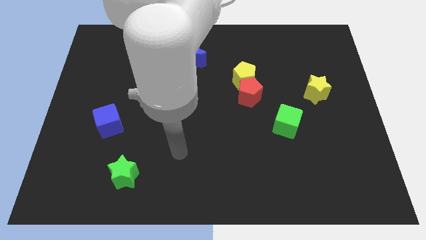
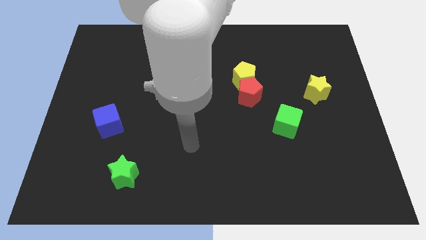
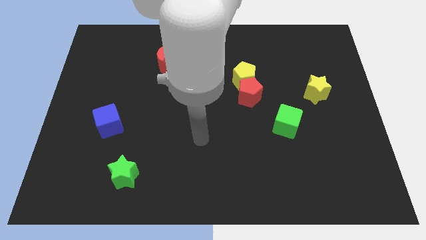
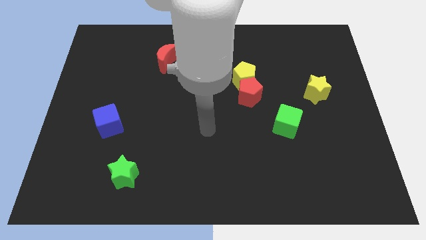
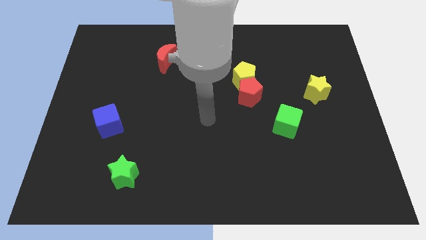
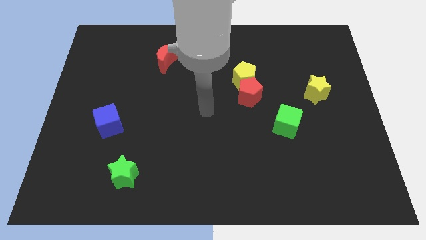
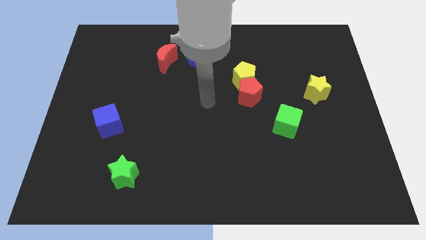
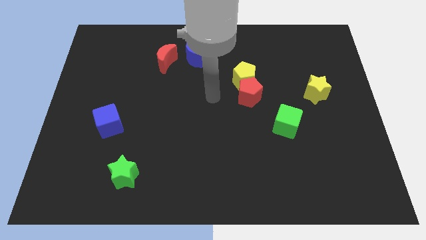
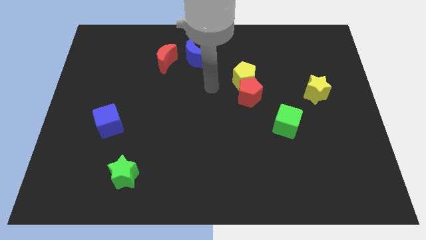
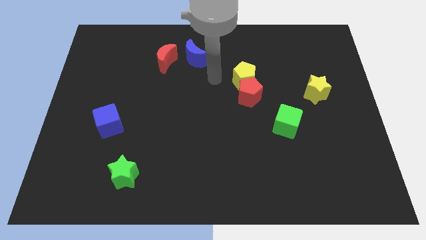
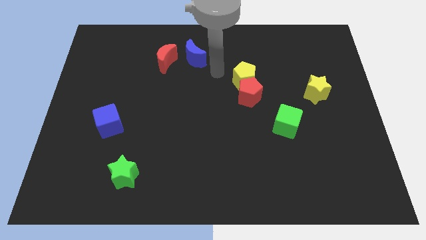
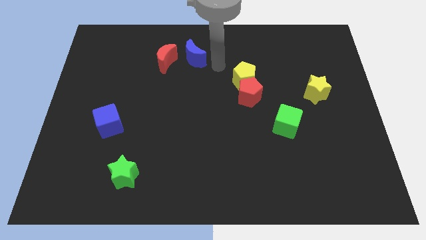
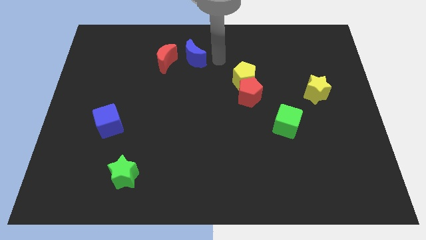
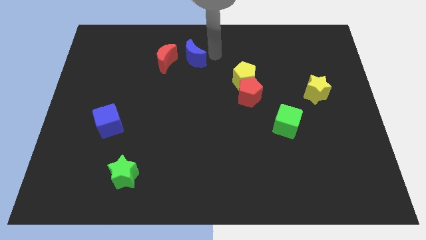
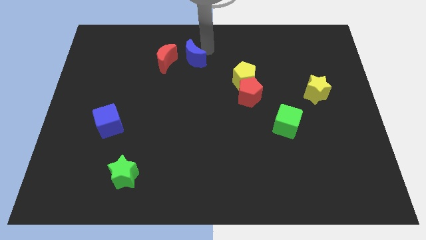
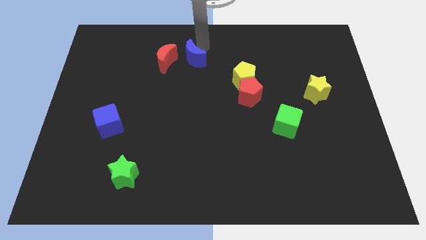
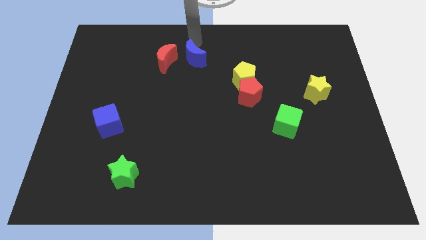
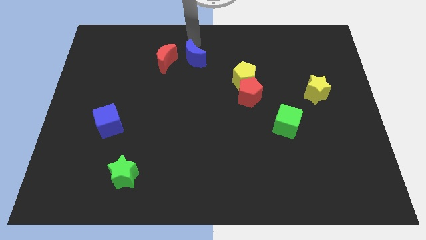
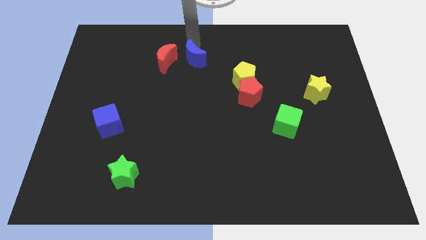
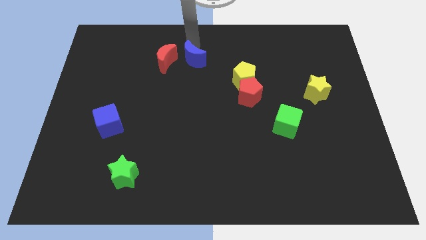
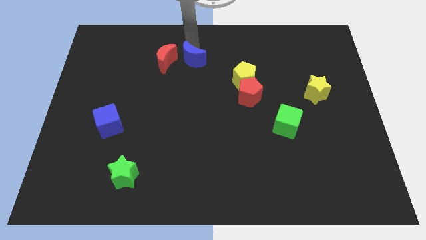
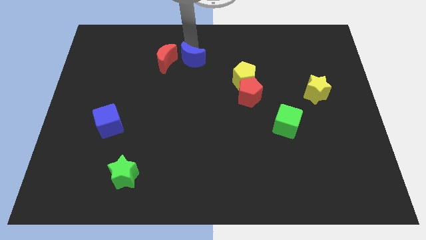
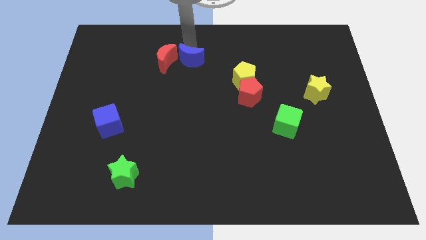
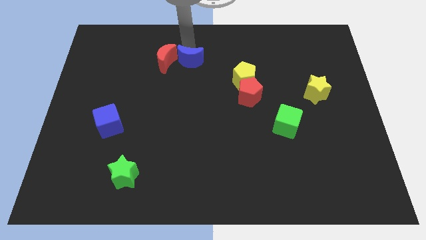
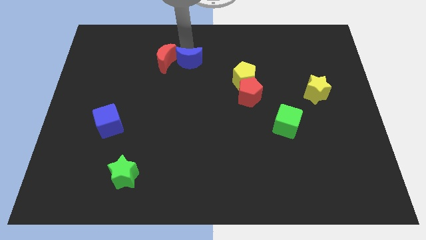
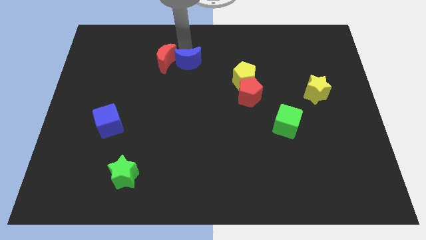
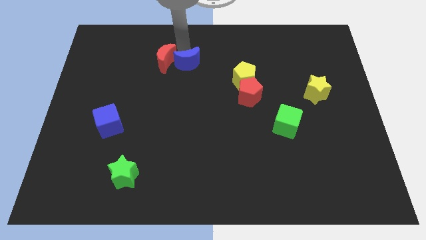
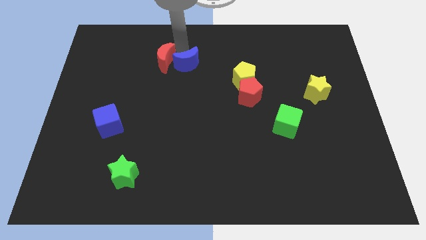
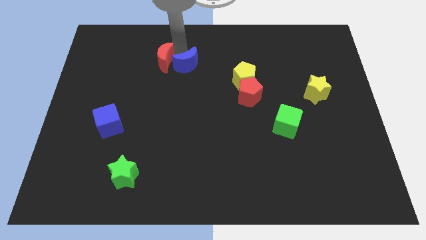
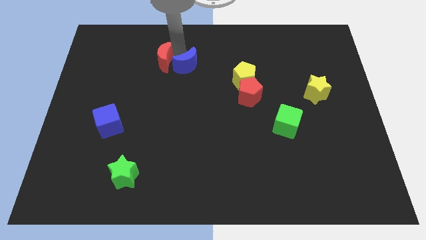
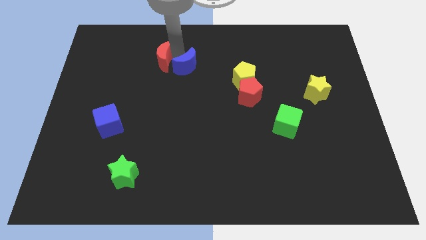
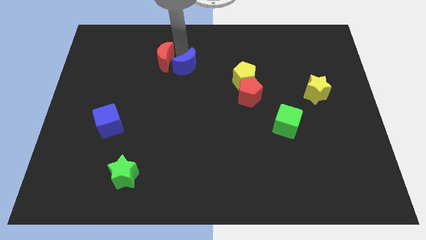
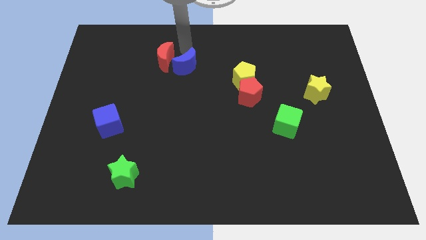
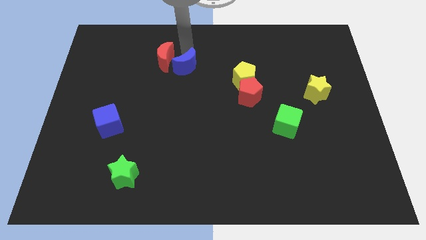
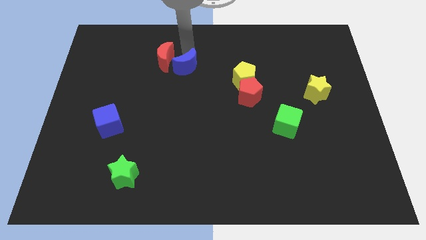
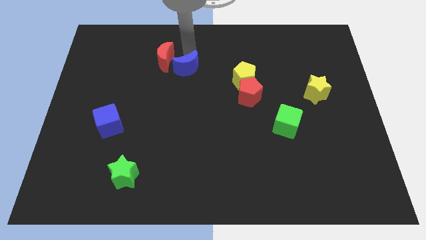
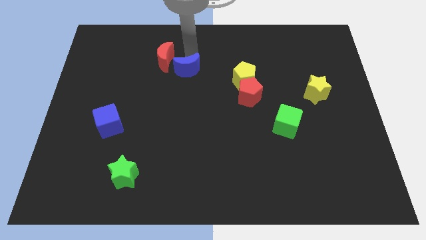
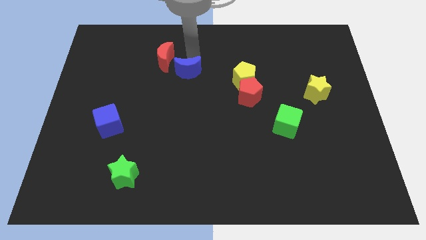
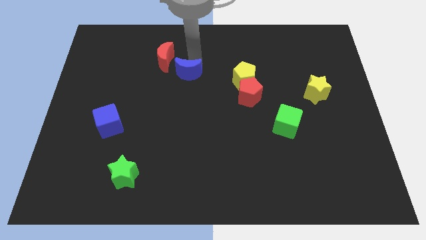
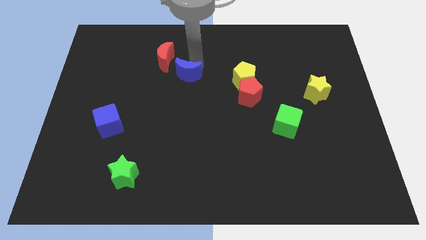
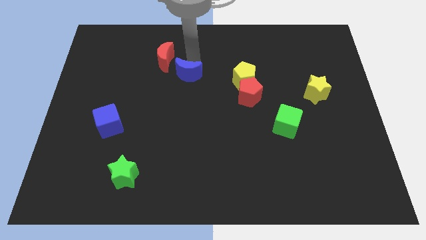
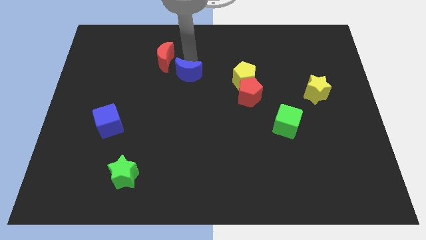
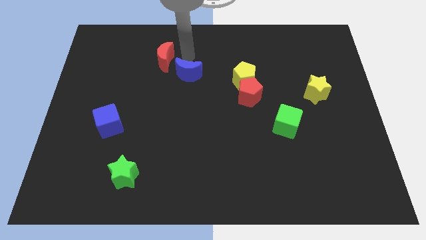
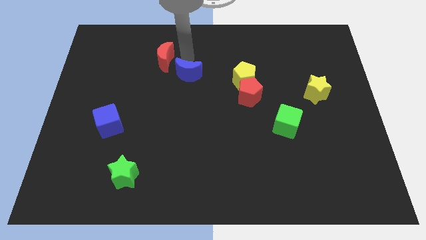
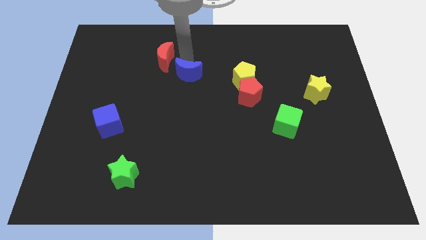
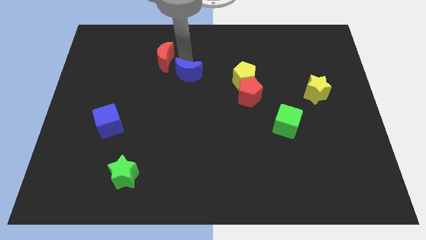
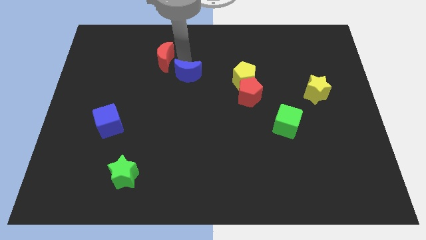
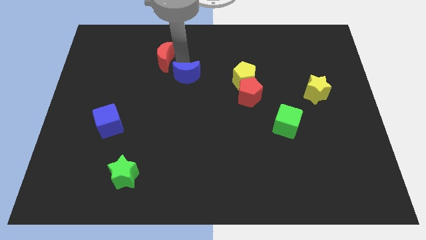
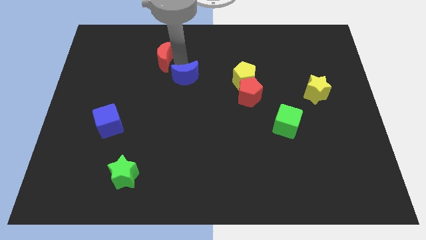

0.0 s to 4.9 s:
slightly push the blue moon downwards

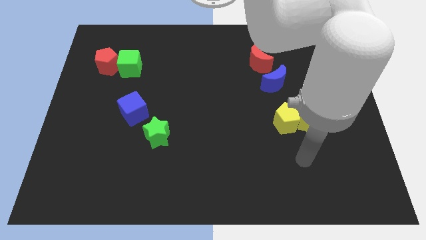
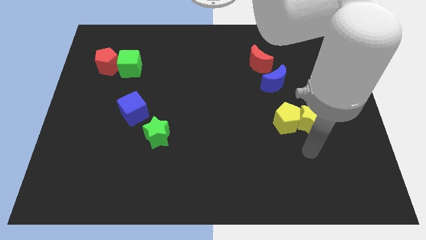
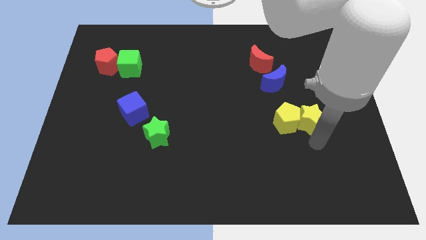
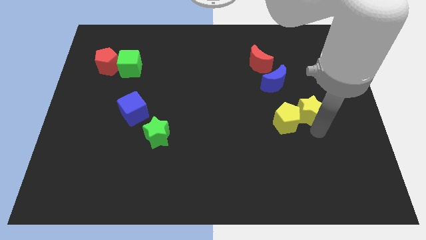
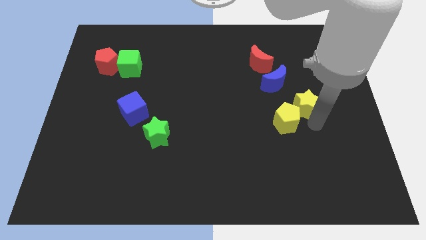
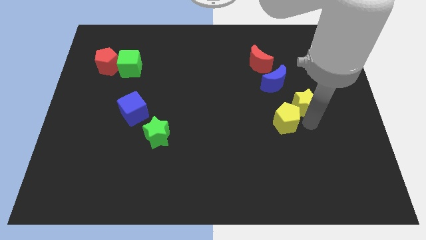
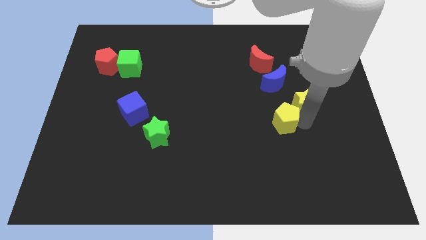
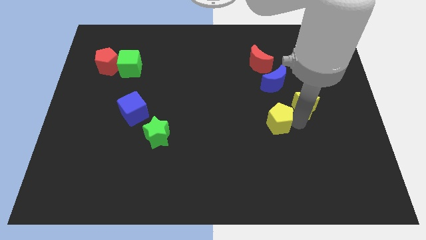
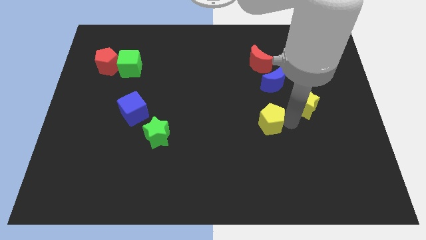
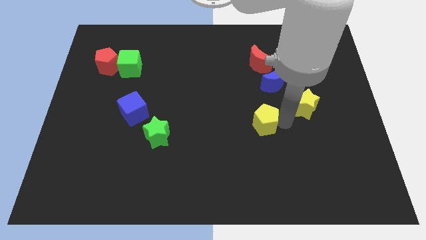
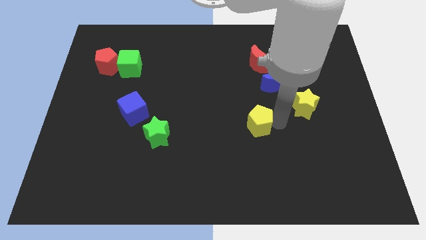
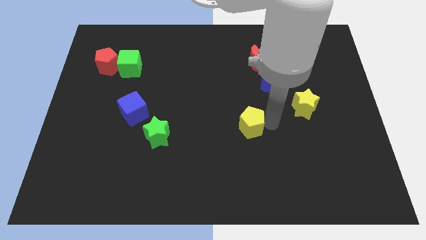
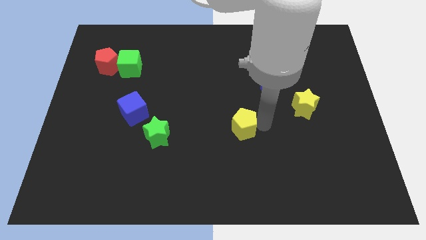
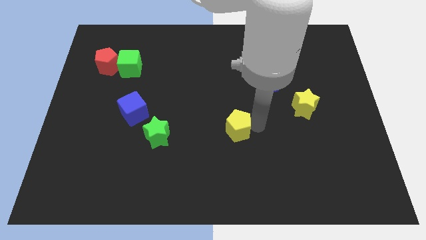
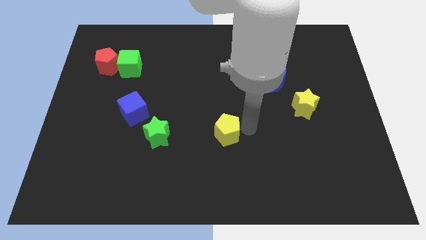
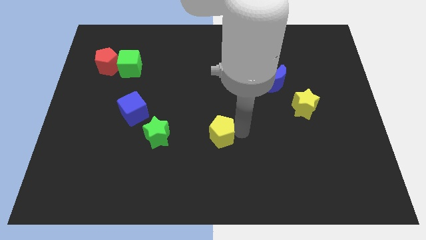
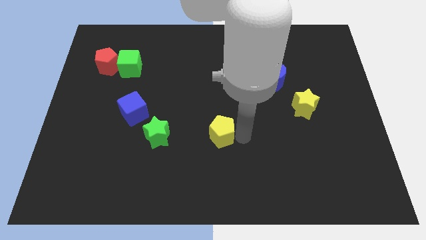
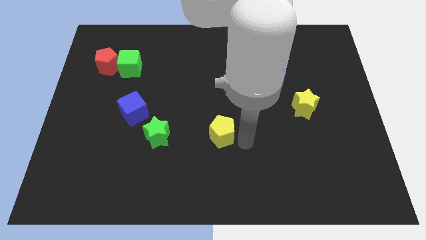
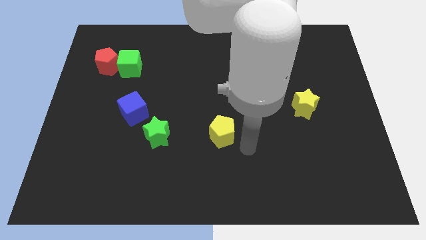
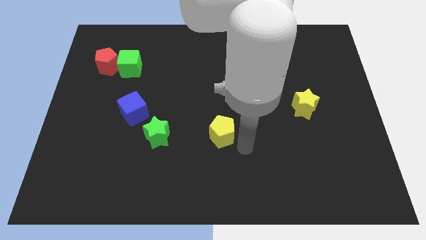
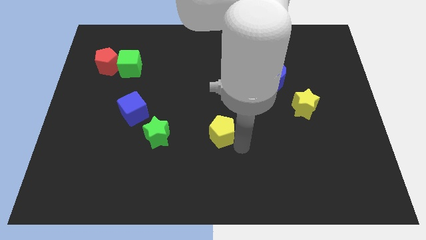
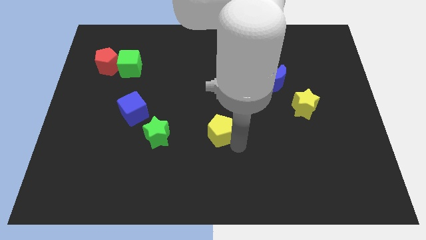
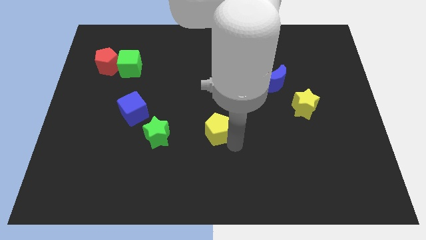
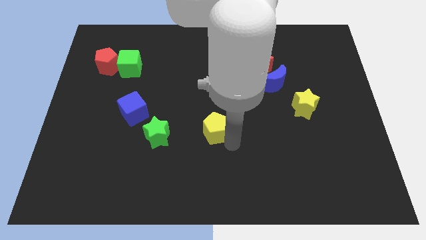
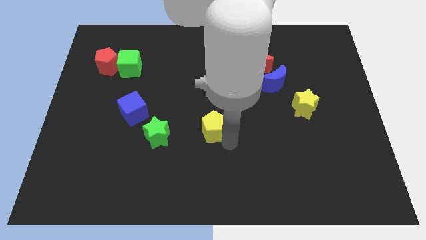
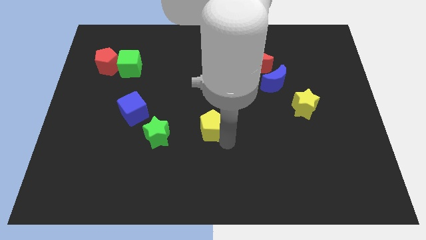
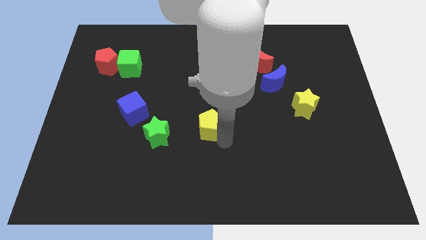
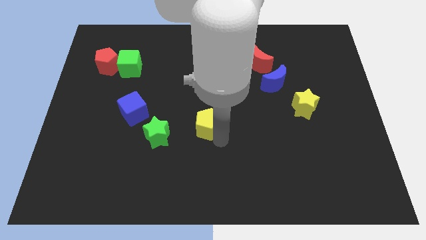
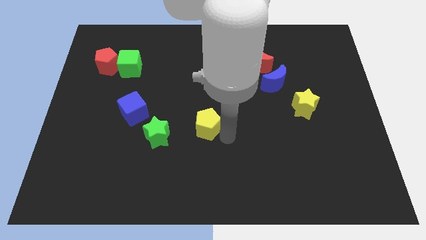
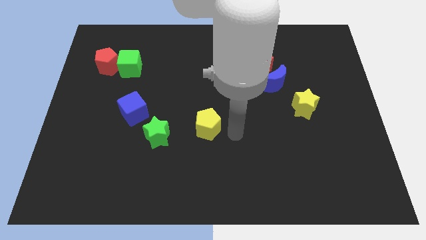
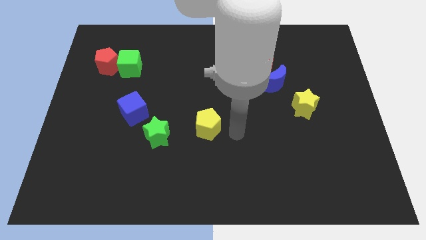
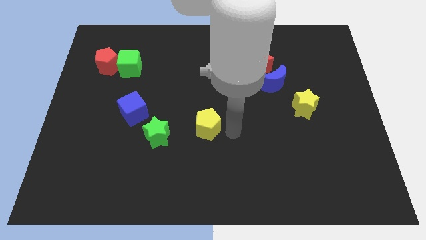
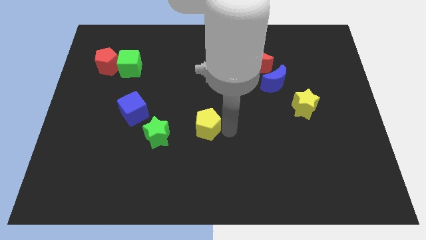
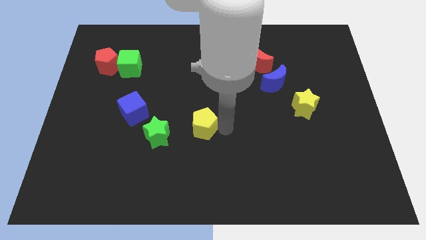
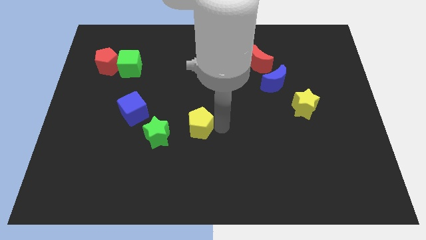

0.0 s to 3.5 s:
push the yellow pentagon left
